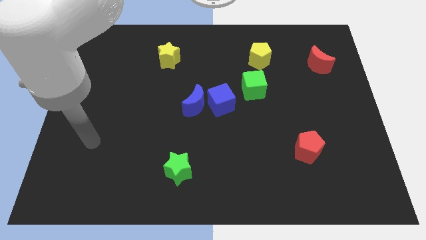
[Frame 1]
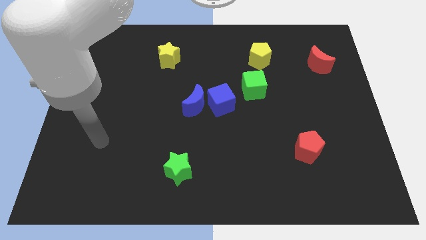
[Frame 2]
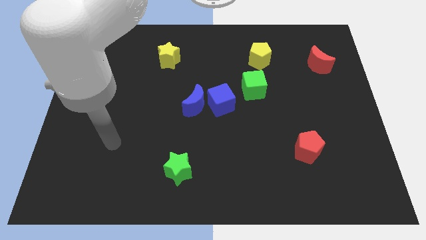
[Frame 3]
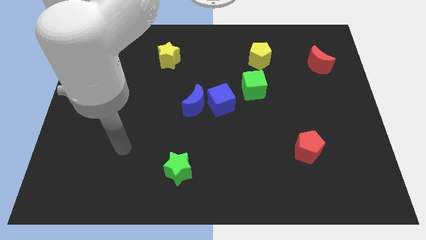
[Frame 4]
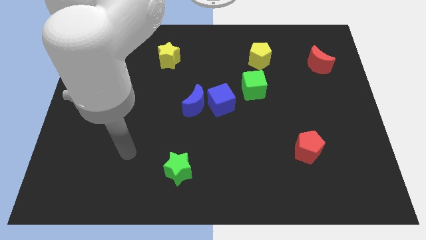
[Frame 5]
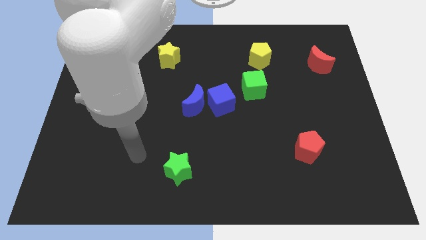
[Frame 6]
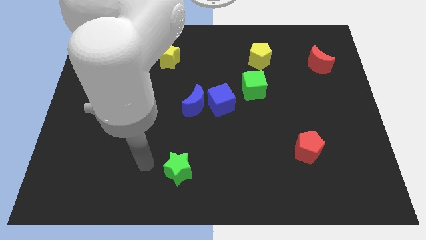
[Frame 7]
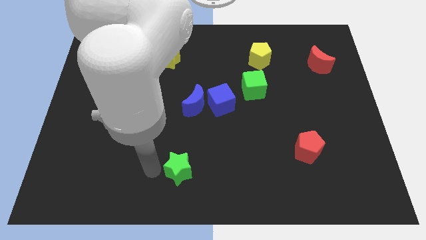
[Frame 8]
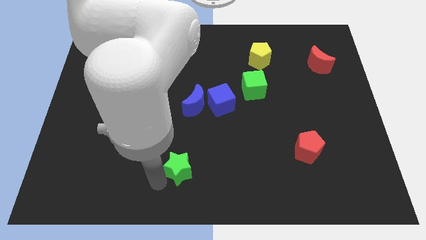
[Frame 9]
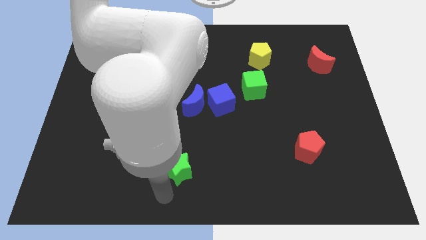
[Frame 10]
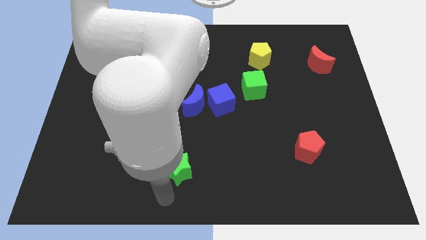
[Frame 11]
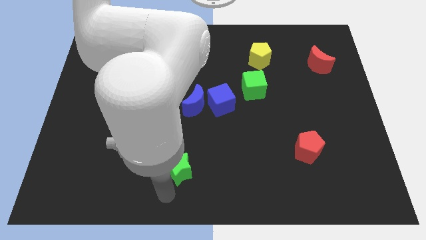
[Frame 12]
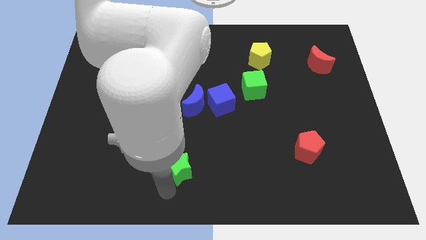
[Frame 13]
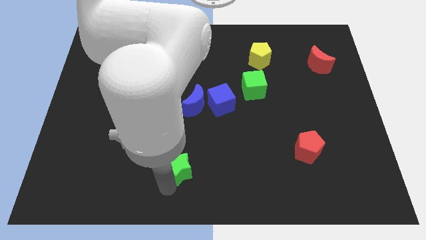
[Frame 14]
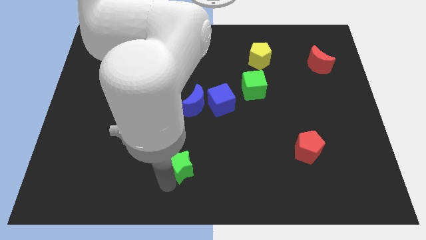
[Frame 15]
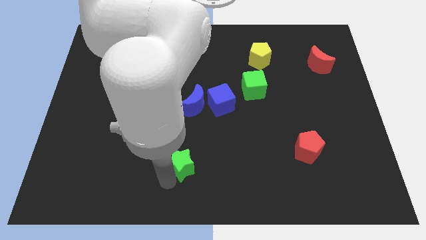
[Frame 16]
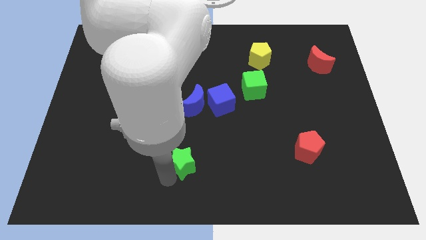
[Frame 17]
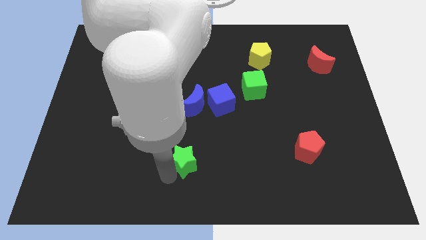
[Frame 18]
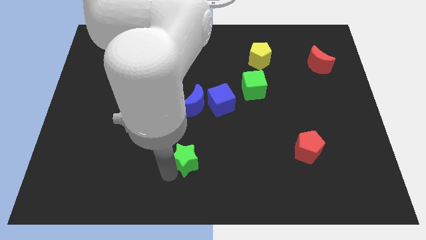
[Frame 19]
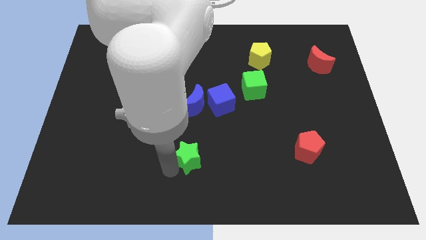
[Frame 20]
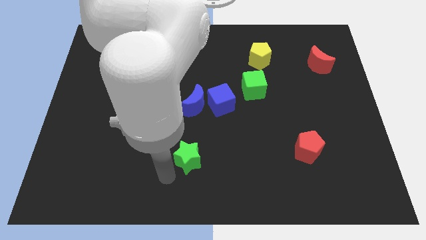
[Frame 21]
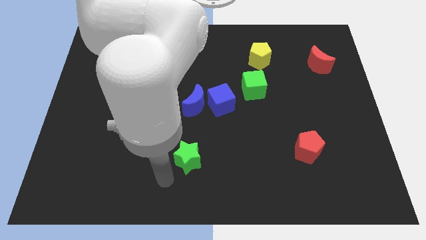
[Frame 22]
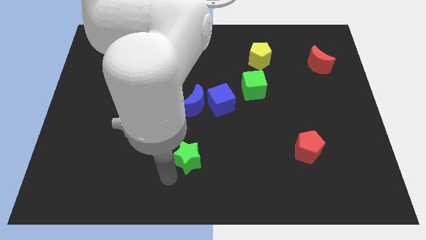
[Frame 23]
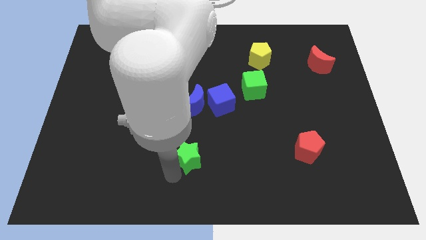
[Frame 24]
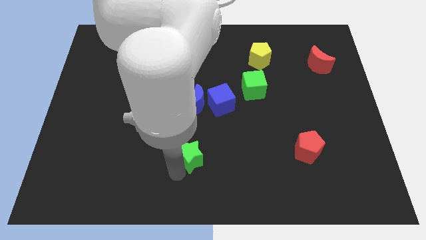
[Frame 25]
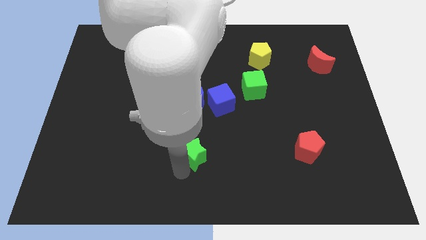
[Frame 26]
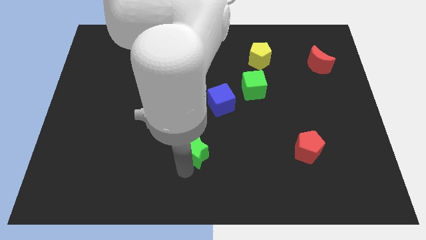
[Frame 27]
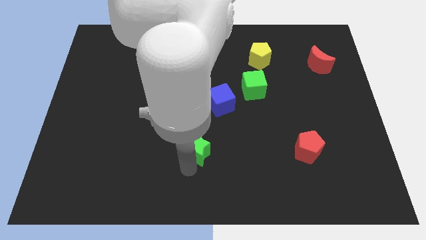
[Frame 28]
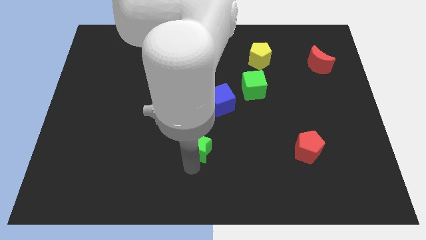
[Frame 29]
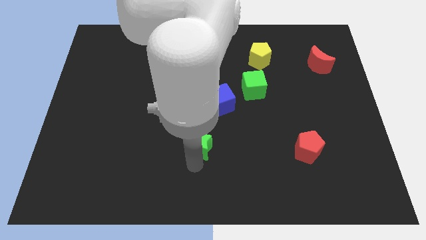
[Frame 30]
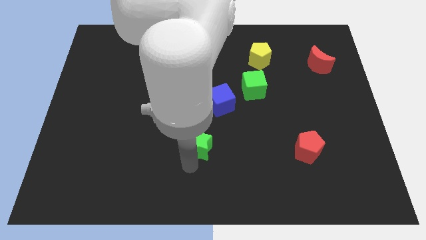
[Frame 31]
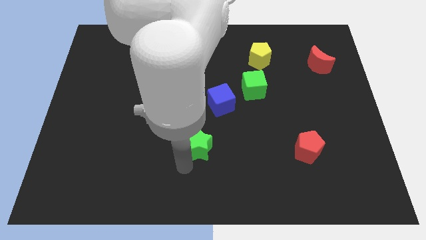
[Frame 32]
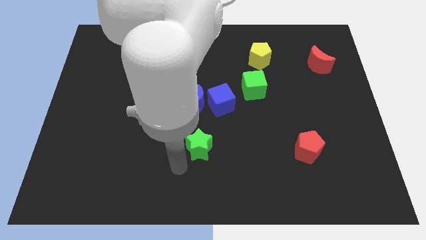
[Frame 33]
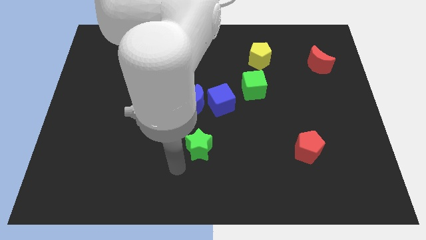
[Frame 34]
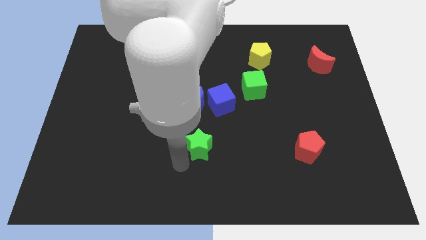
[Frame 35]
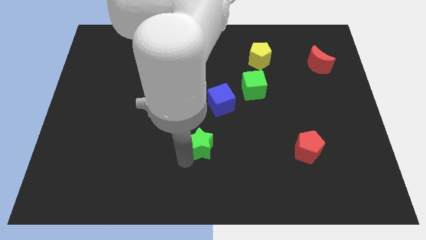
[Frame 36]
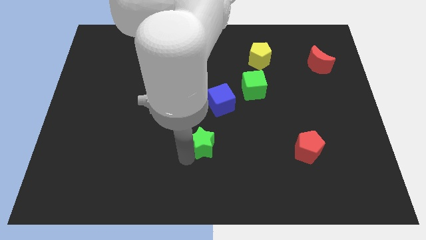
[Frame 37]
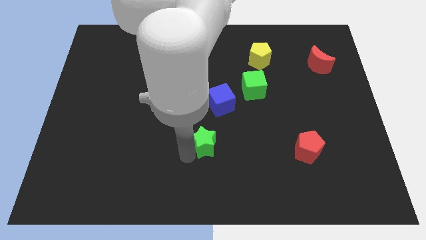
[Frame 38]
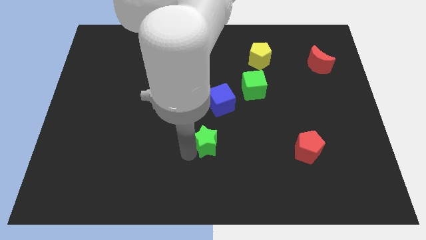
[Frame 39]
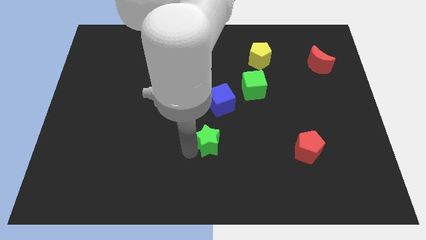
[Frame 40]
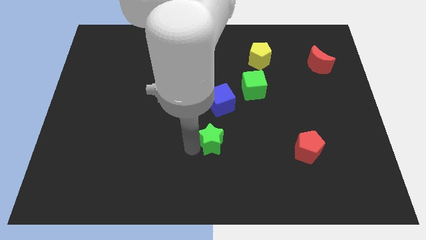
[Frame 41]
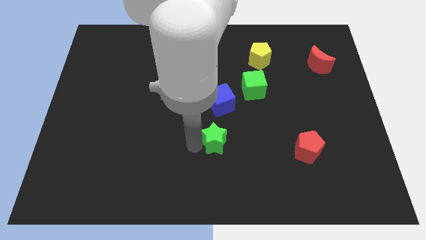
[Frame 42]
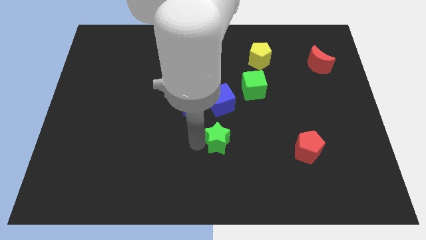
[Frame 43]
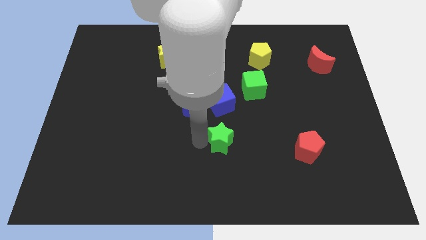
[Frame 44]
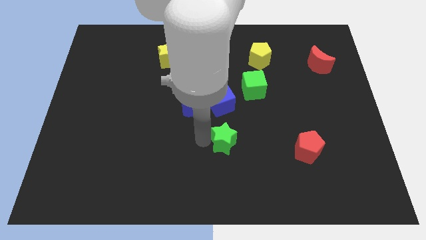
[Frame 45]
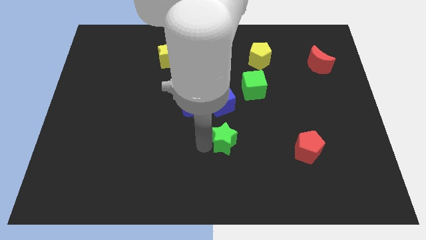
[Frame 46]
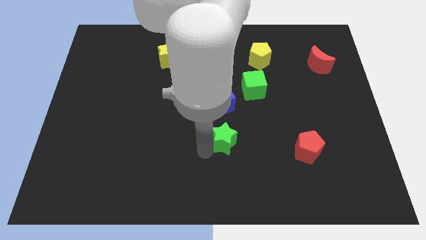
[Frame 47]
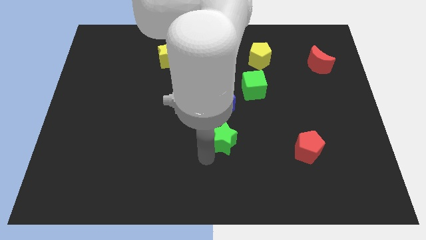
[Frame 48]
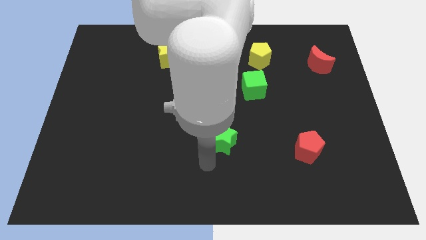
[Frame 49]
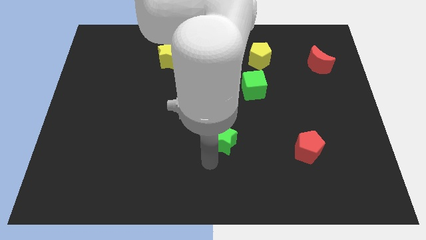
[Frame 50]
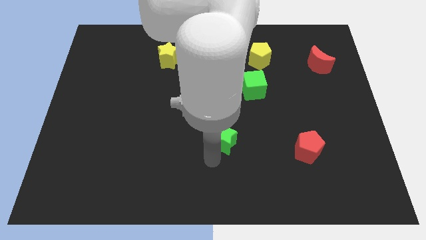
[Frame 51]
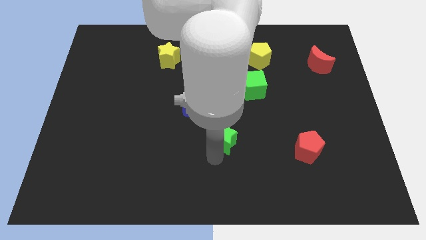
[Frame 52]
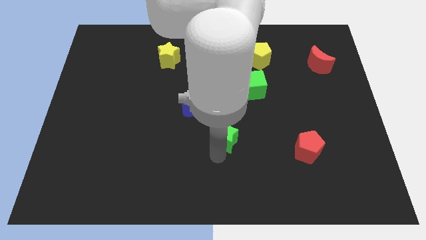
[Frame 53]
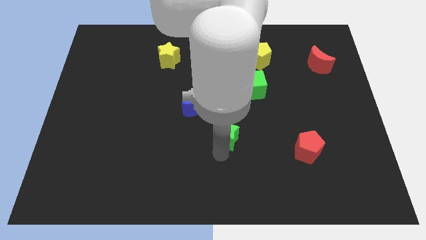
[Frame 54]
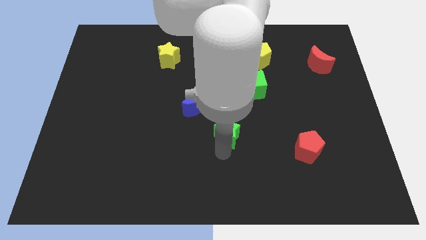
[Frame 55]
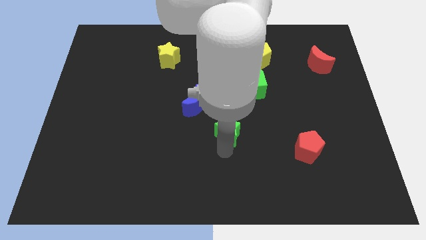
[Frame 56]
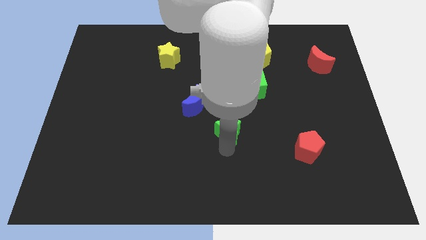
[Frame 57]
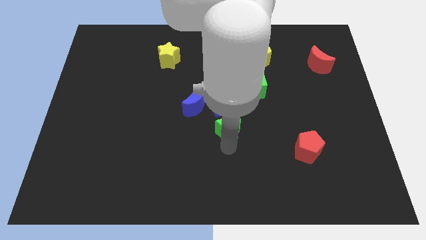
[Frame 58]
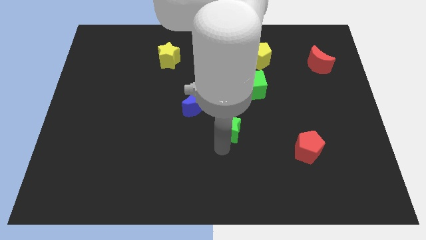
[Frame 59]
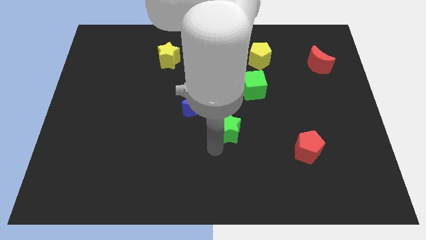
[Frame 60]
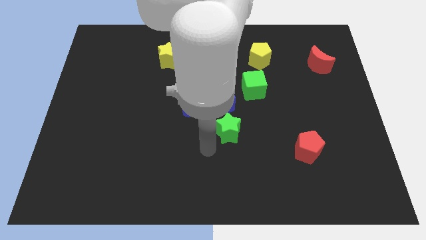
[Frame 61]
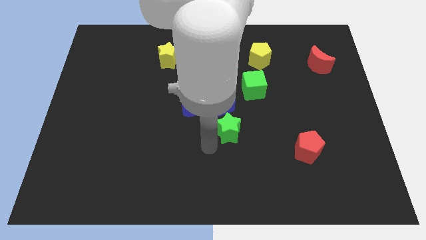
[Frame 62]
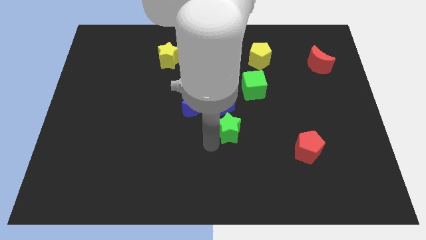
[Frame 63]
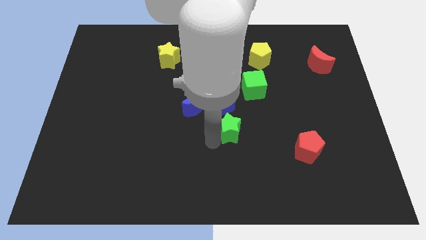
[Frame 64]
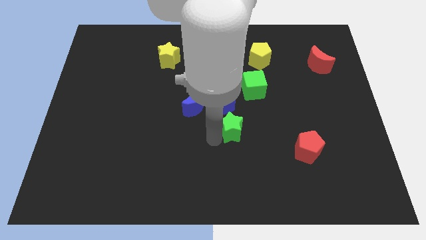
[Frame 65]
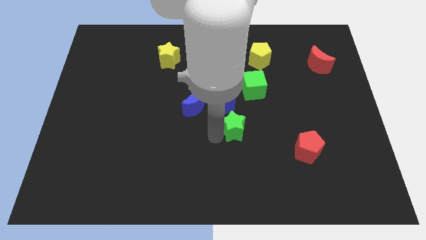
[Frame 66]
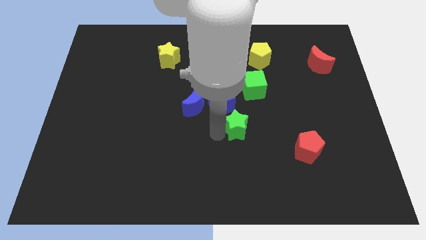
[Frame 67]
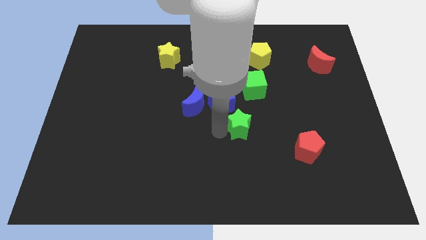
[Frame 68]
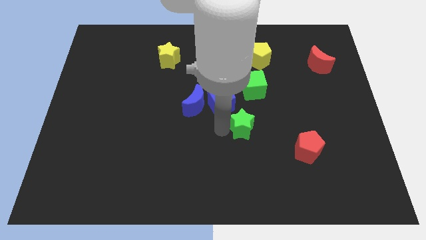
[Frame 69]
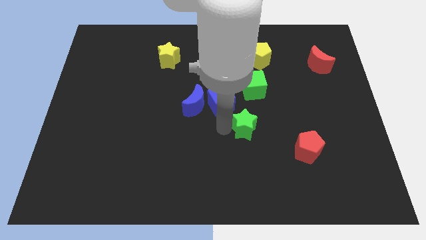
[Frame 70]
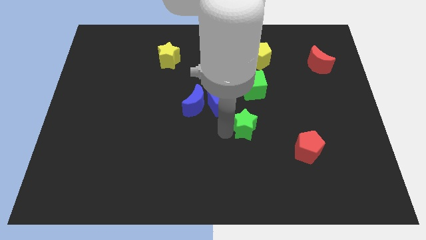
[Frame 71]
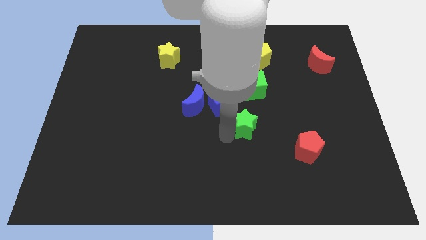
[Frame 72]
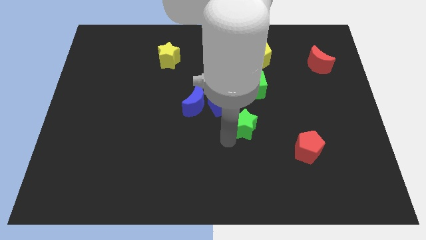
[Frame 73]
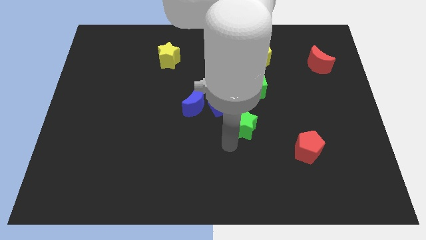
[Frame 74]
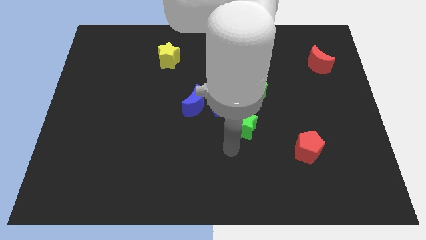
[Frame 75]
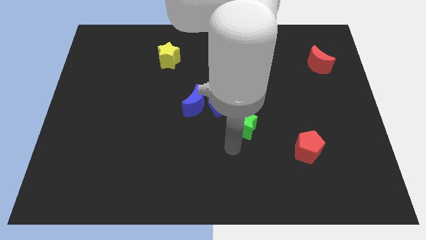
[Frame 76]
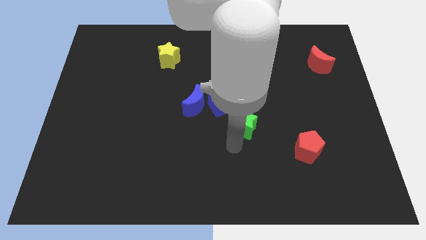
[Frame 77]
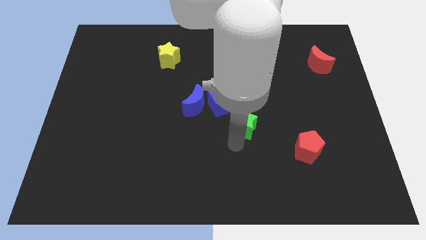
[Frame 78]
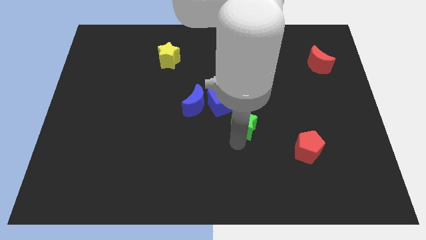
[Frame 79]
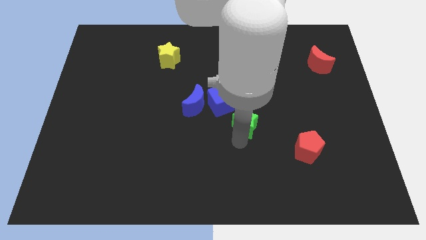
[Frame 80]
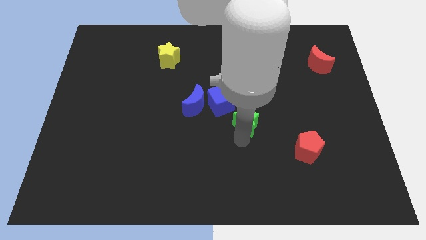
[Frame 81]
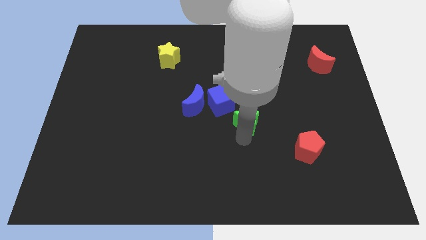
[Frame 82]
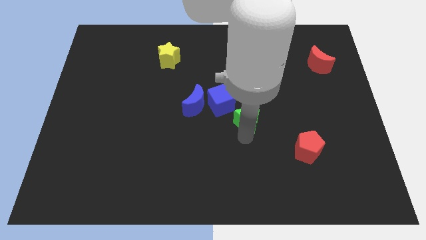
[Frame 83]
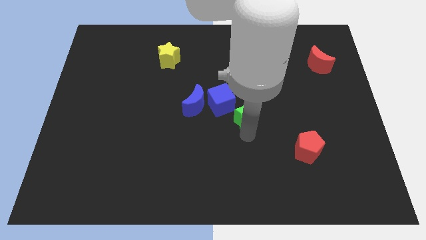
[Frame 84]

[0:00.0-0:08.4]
slide the green star up and right
